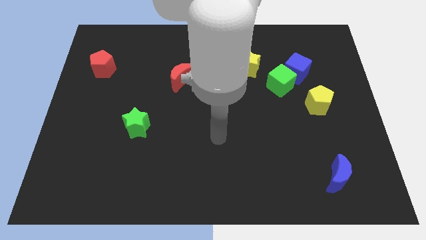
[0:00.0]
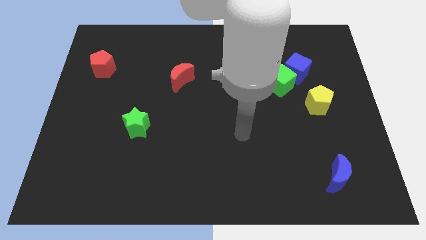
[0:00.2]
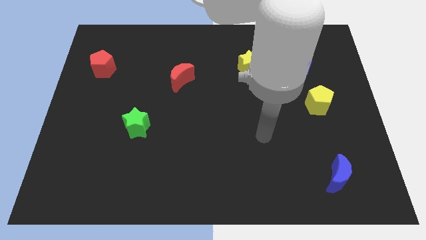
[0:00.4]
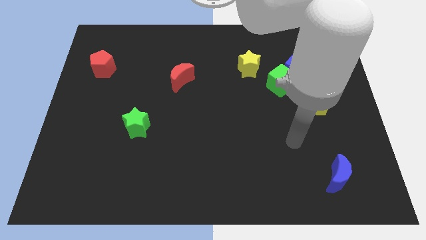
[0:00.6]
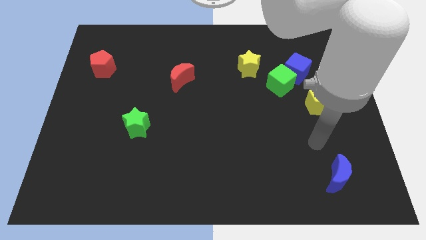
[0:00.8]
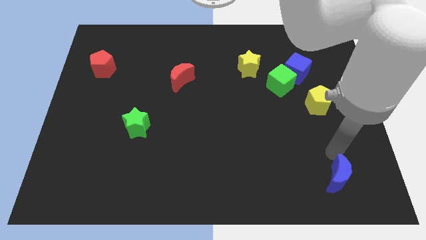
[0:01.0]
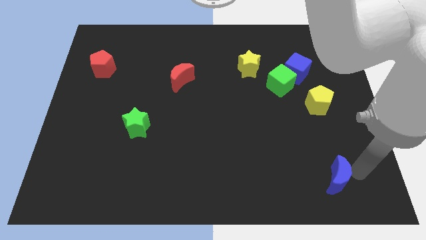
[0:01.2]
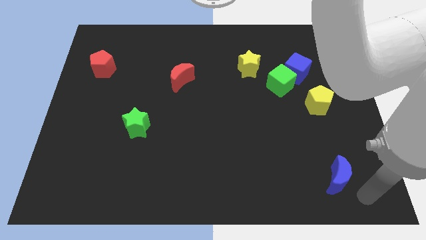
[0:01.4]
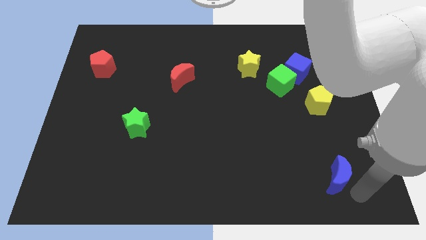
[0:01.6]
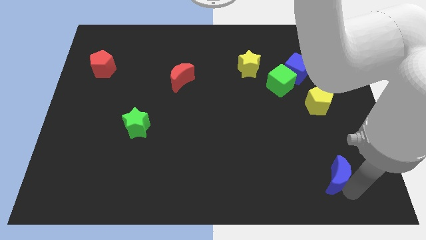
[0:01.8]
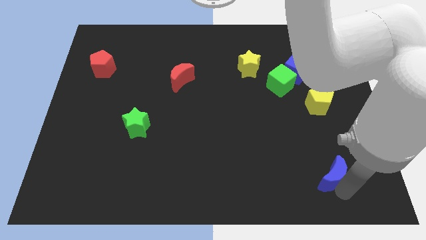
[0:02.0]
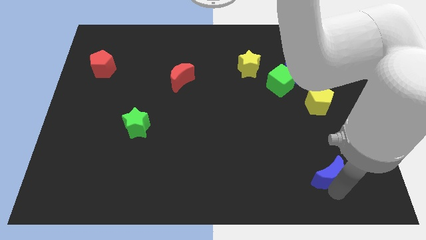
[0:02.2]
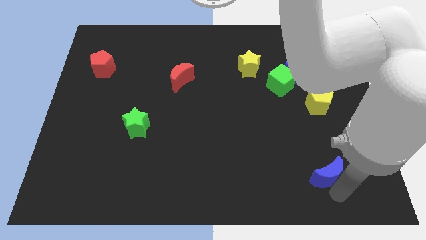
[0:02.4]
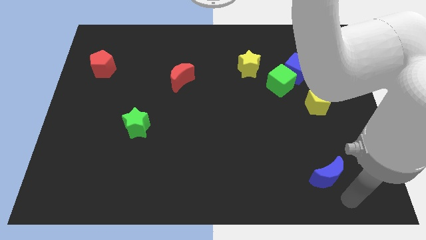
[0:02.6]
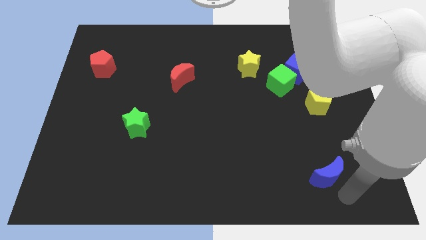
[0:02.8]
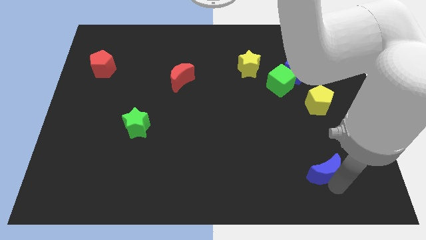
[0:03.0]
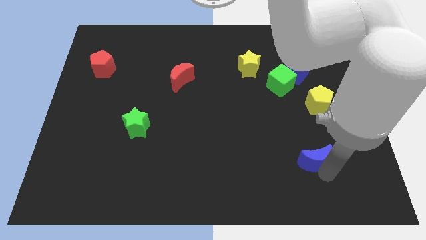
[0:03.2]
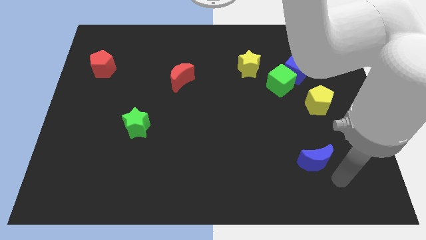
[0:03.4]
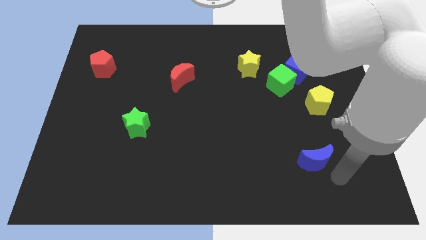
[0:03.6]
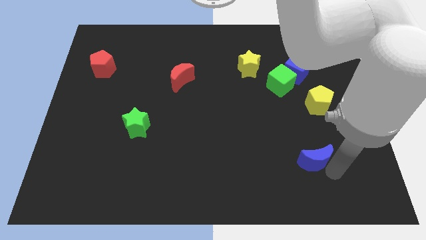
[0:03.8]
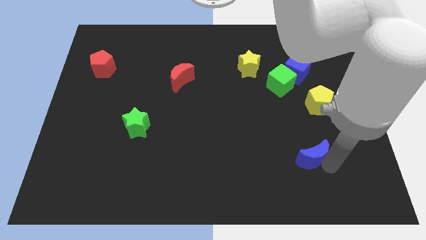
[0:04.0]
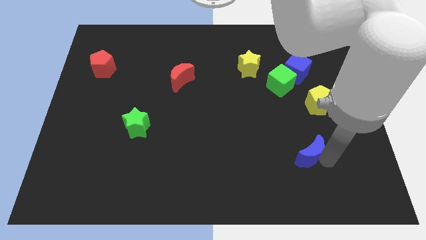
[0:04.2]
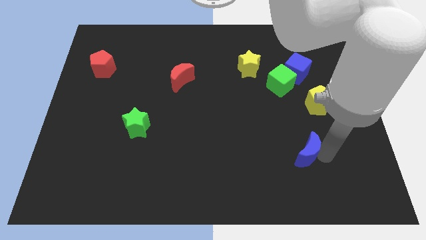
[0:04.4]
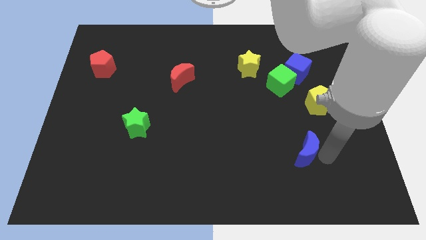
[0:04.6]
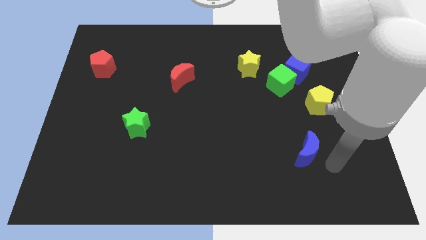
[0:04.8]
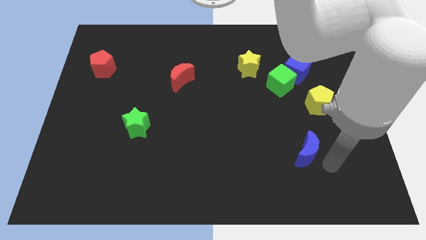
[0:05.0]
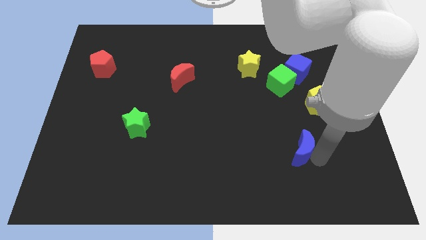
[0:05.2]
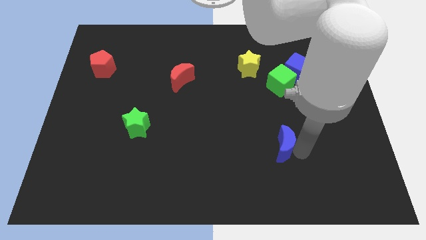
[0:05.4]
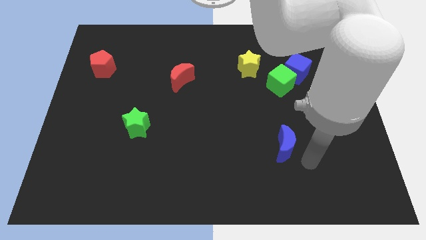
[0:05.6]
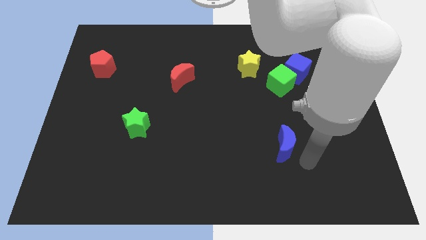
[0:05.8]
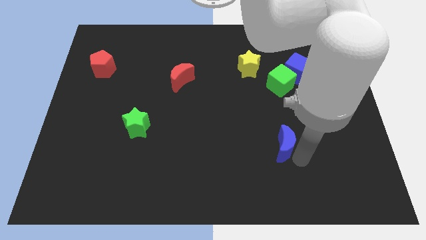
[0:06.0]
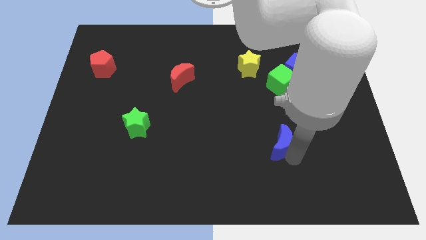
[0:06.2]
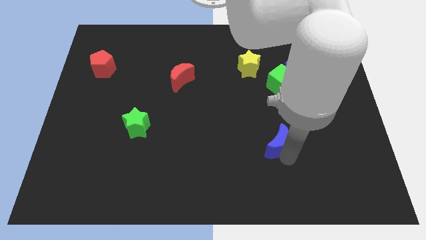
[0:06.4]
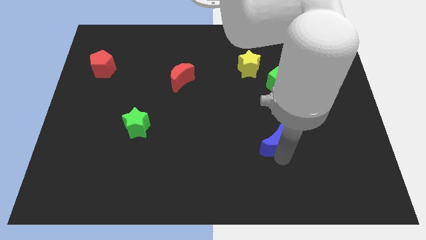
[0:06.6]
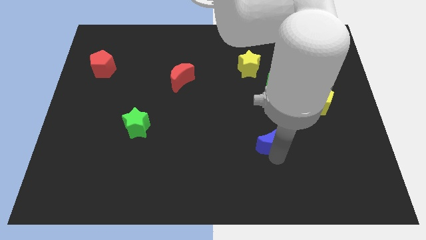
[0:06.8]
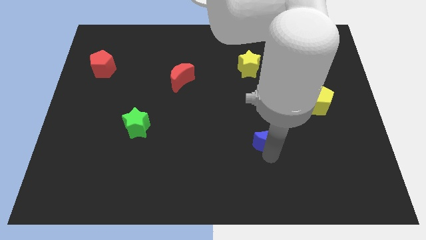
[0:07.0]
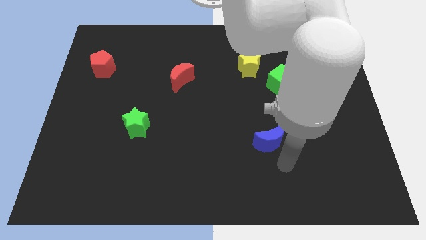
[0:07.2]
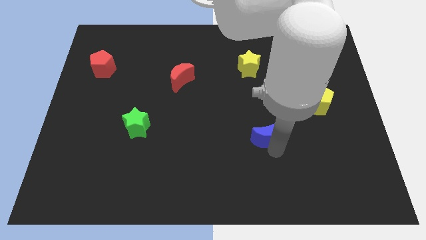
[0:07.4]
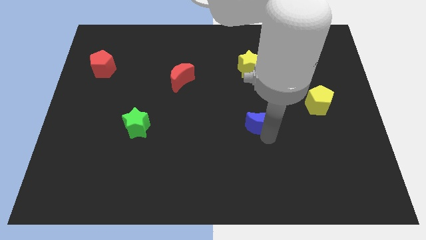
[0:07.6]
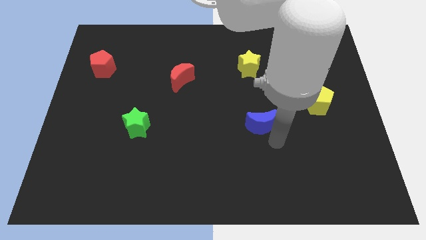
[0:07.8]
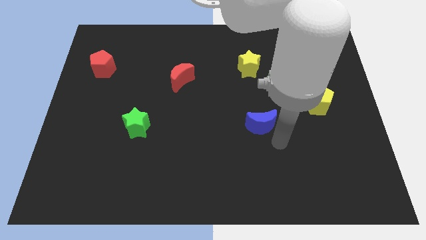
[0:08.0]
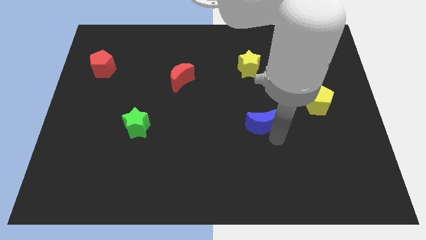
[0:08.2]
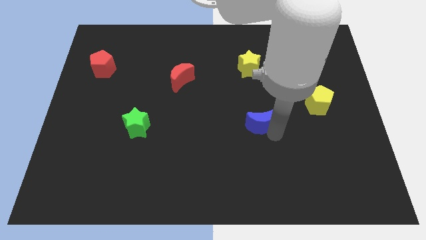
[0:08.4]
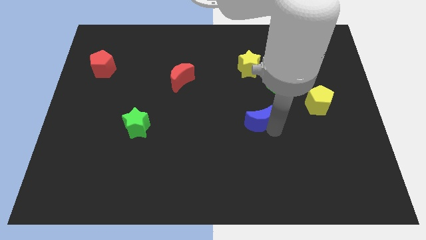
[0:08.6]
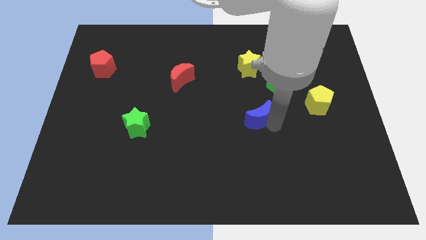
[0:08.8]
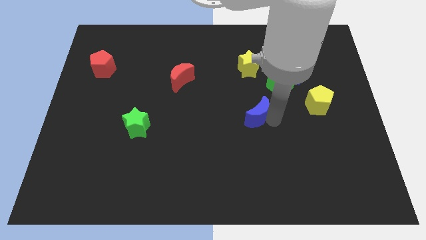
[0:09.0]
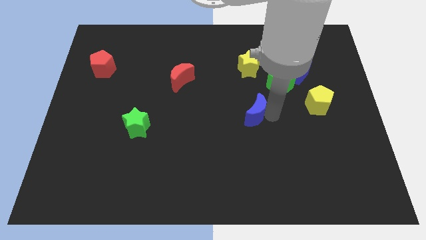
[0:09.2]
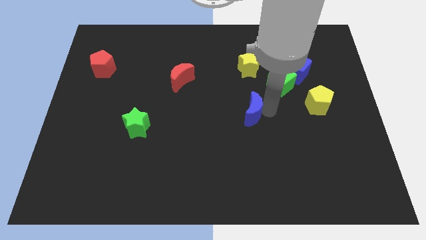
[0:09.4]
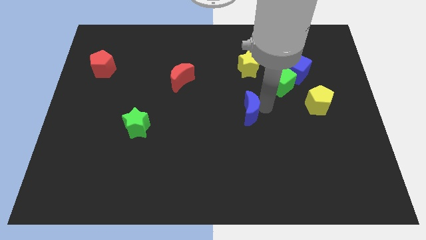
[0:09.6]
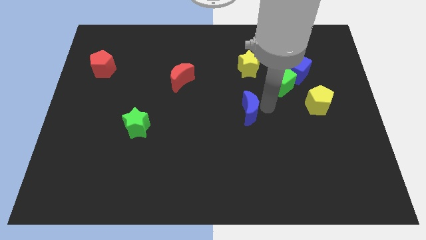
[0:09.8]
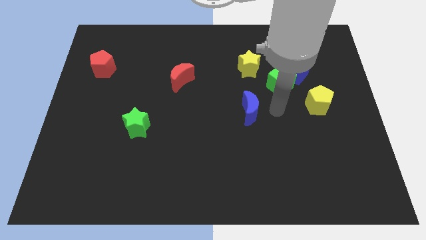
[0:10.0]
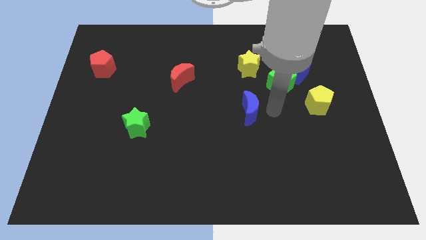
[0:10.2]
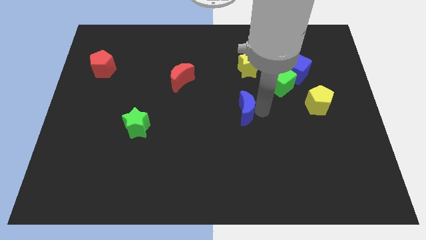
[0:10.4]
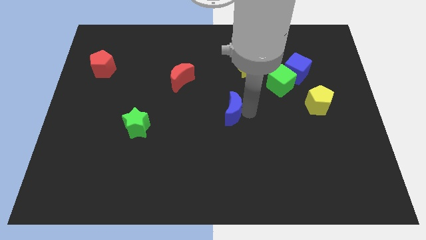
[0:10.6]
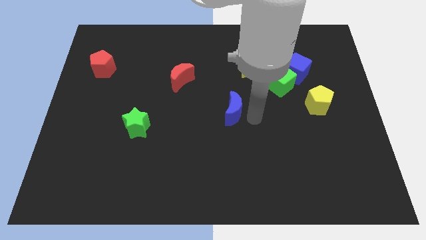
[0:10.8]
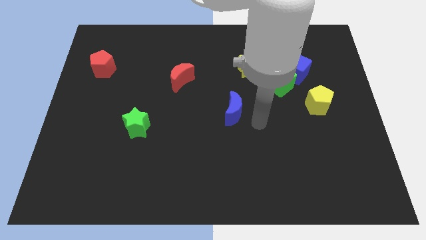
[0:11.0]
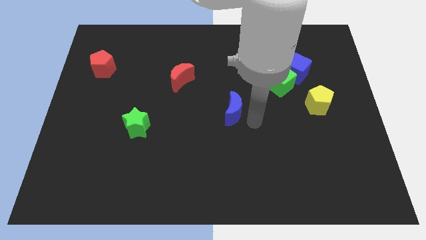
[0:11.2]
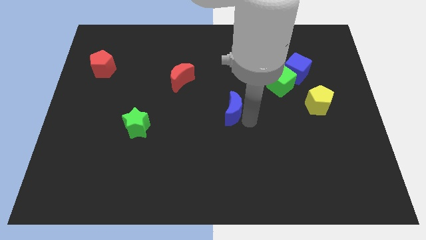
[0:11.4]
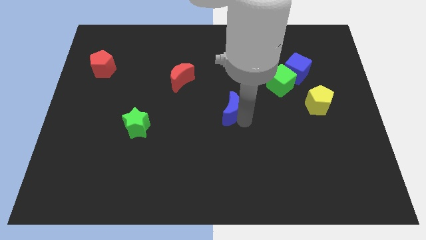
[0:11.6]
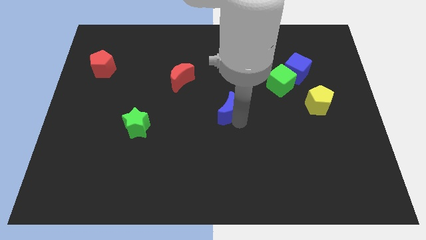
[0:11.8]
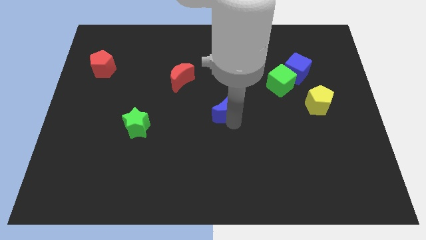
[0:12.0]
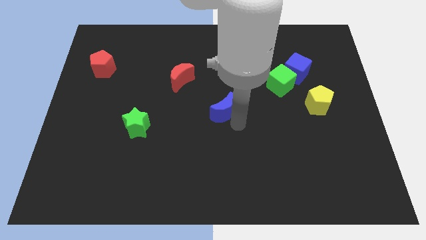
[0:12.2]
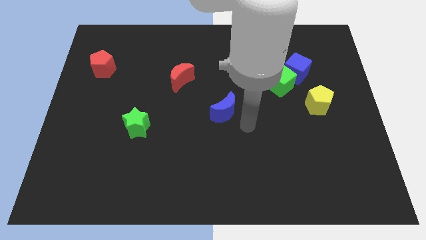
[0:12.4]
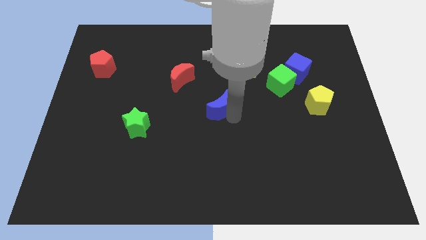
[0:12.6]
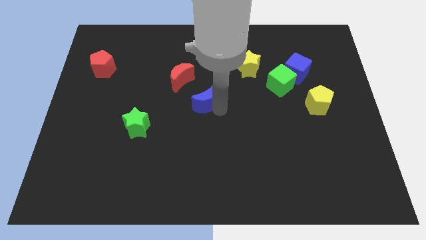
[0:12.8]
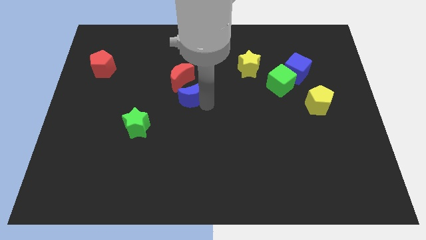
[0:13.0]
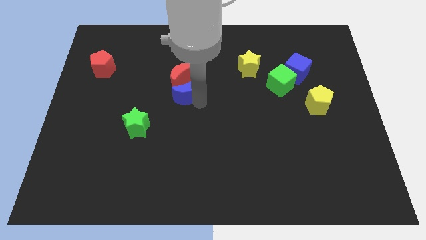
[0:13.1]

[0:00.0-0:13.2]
slide the blue moon towards the red moon

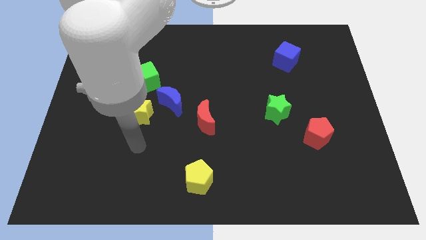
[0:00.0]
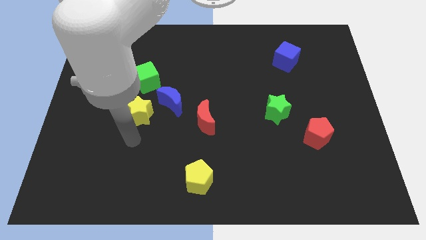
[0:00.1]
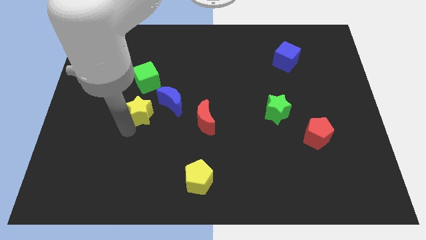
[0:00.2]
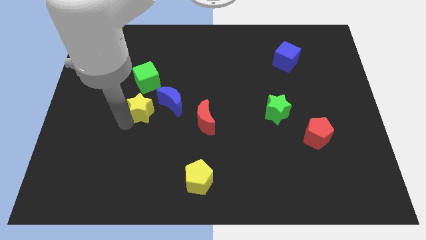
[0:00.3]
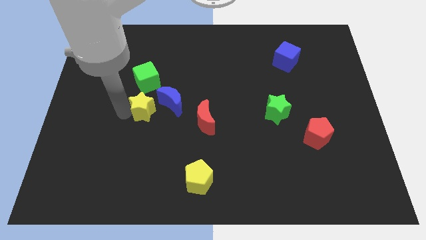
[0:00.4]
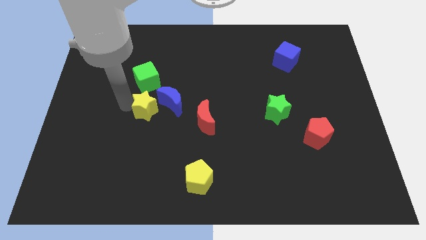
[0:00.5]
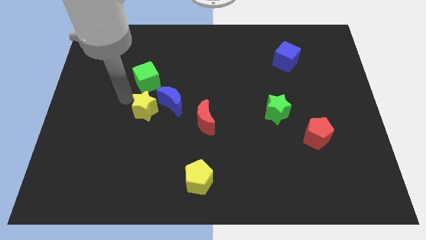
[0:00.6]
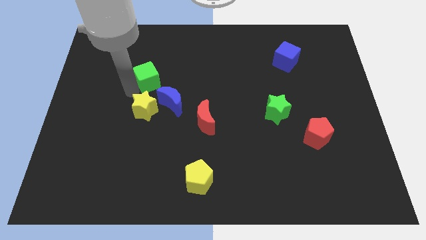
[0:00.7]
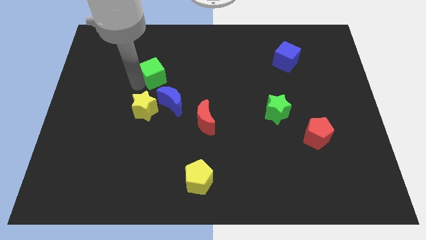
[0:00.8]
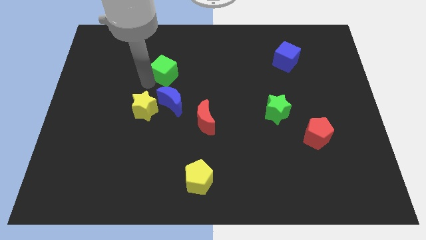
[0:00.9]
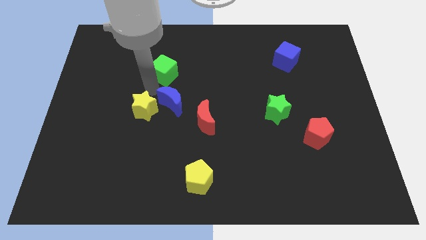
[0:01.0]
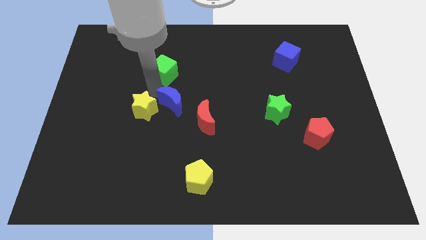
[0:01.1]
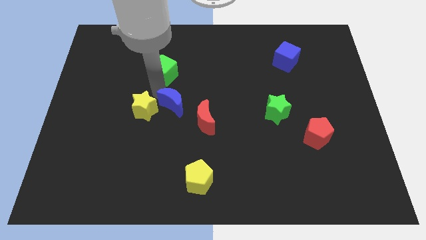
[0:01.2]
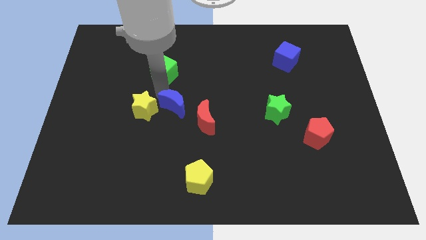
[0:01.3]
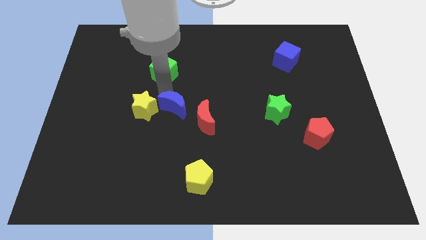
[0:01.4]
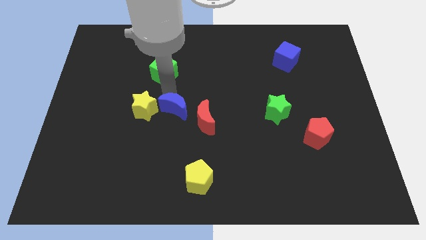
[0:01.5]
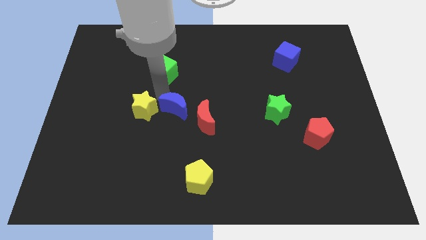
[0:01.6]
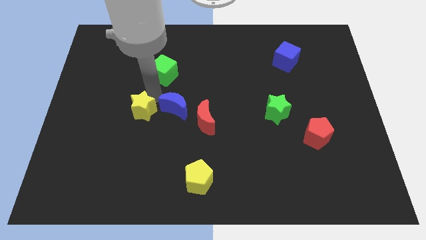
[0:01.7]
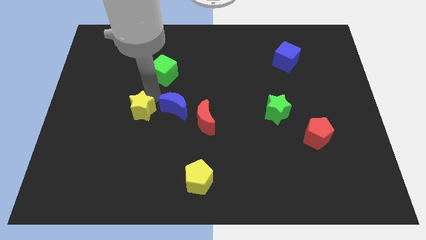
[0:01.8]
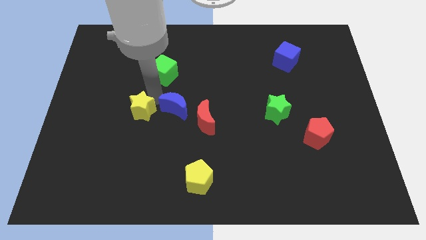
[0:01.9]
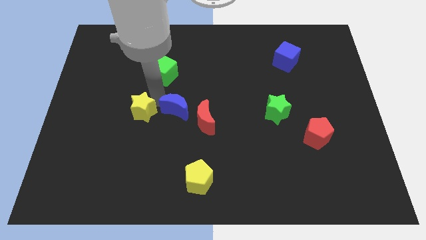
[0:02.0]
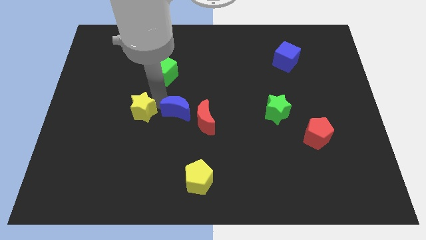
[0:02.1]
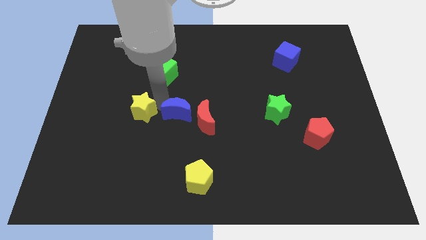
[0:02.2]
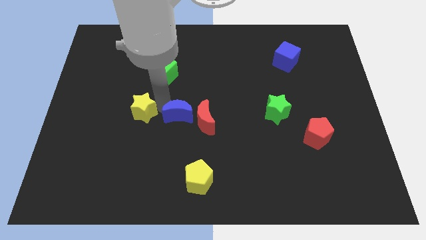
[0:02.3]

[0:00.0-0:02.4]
move the blue moon towards the red moon
